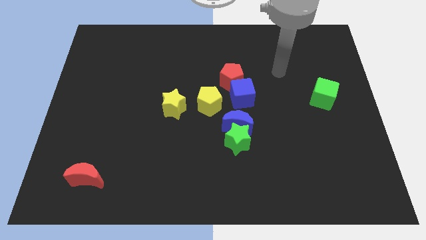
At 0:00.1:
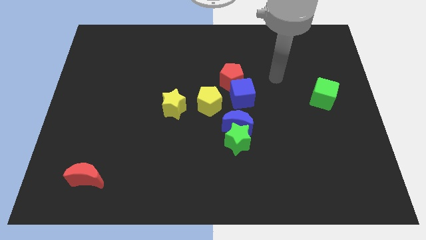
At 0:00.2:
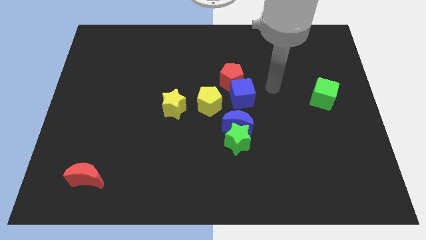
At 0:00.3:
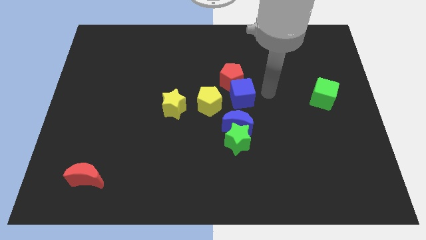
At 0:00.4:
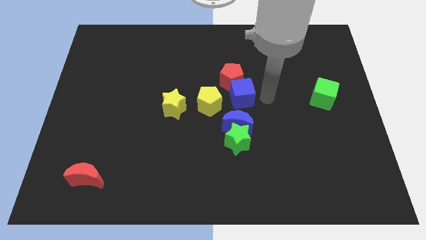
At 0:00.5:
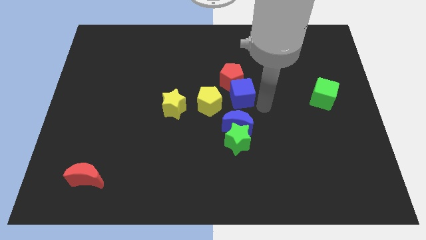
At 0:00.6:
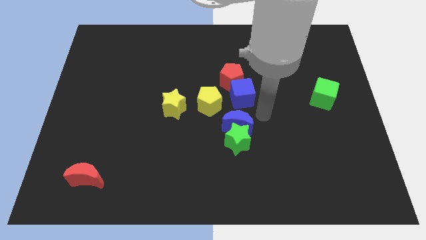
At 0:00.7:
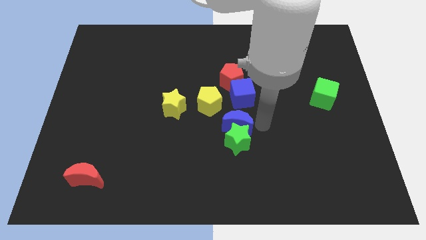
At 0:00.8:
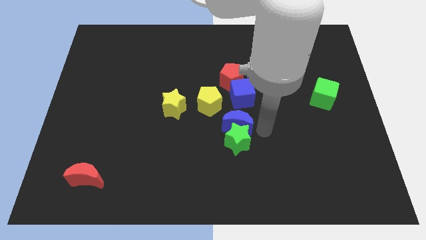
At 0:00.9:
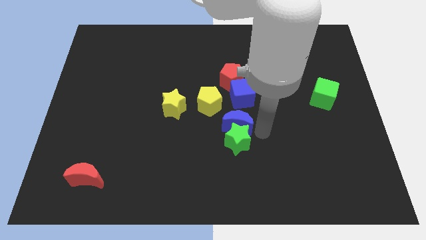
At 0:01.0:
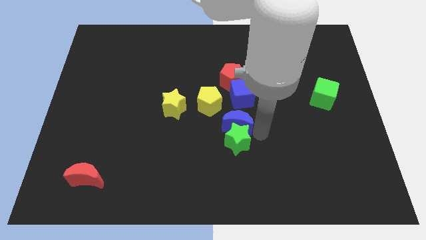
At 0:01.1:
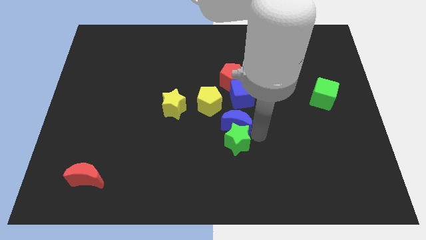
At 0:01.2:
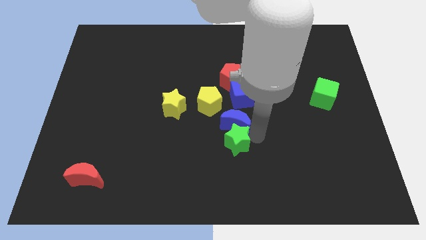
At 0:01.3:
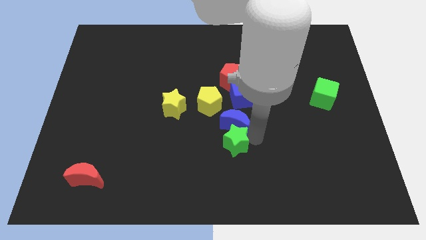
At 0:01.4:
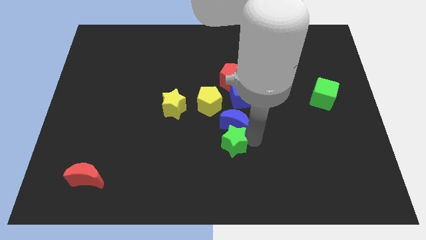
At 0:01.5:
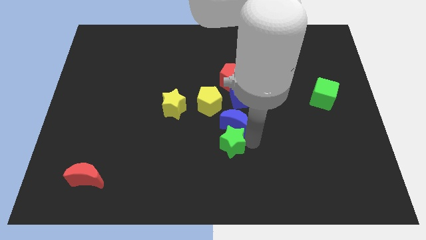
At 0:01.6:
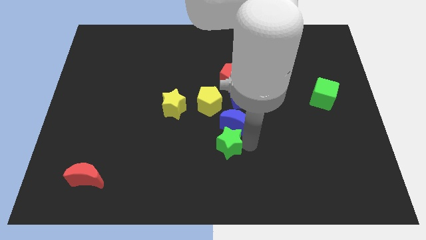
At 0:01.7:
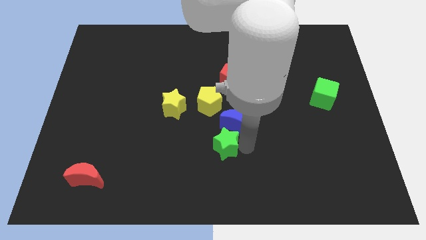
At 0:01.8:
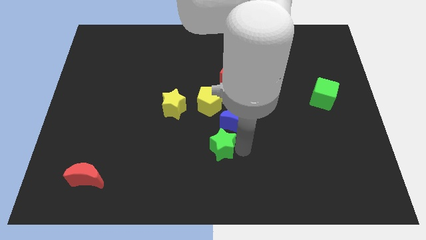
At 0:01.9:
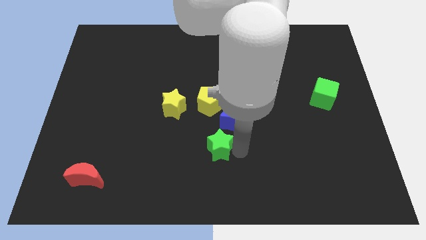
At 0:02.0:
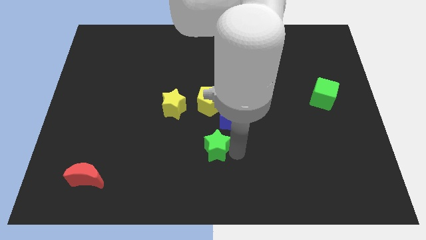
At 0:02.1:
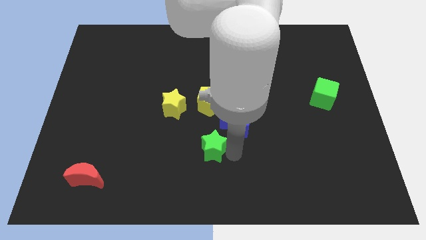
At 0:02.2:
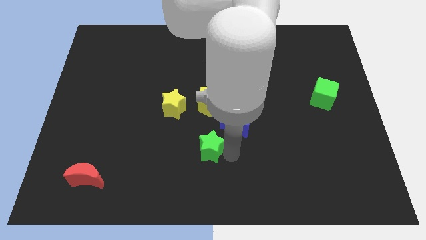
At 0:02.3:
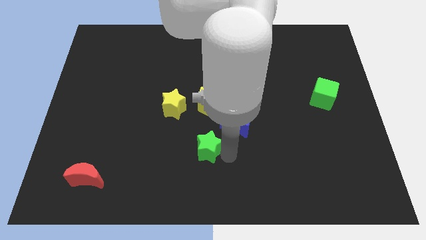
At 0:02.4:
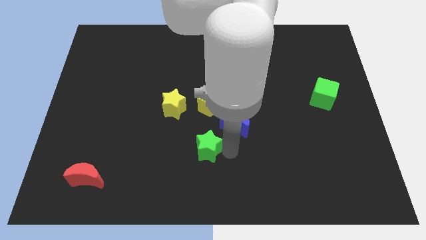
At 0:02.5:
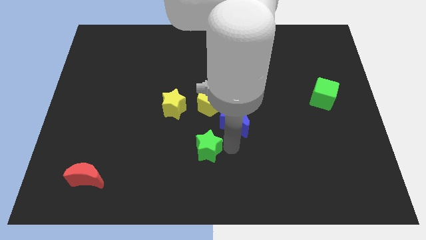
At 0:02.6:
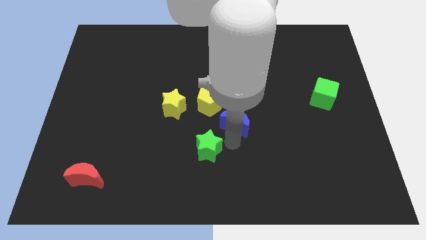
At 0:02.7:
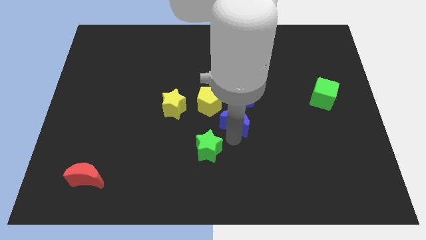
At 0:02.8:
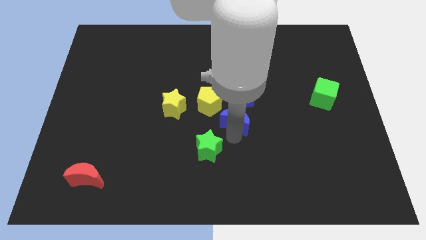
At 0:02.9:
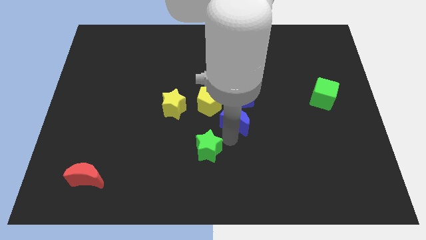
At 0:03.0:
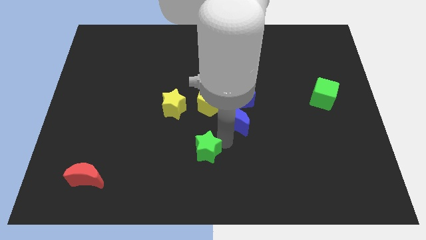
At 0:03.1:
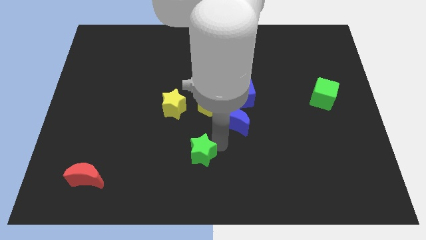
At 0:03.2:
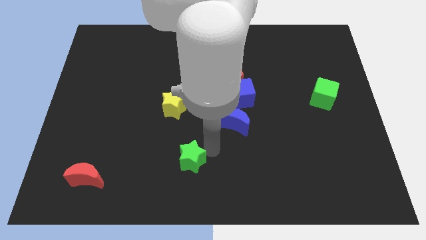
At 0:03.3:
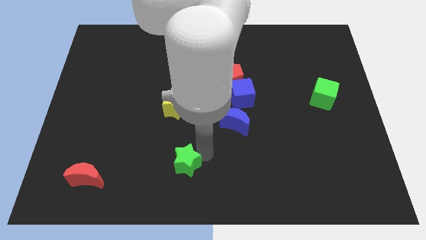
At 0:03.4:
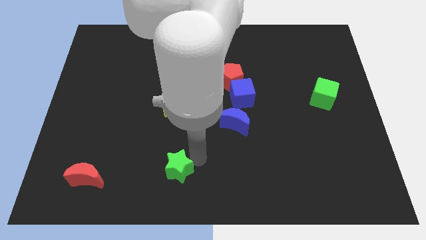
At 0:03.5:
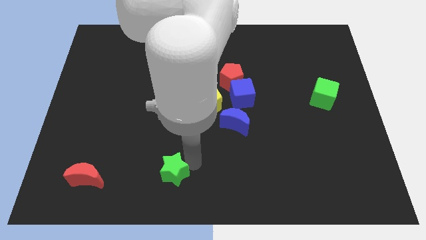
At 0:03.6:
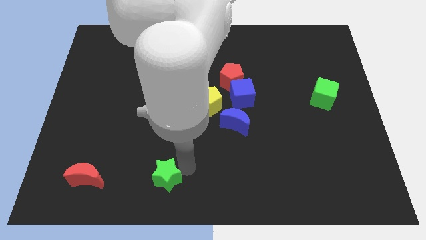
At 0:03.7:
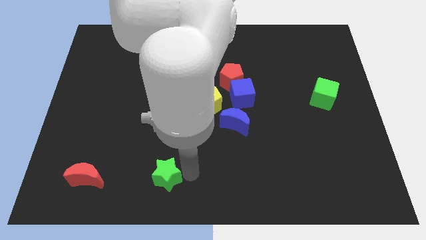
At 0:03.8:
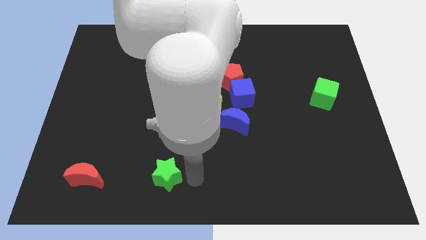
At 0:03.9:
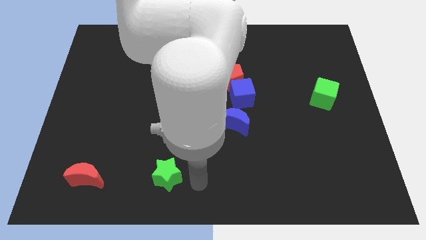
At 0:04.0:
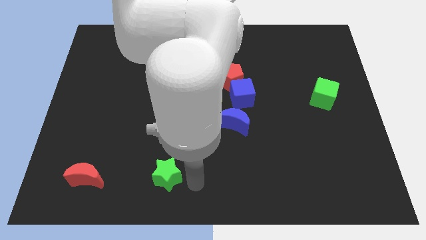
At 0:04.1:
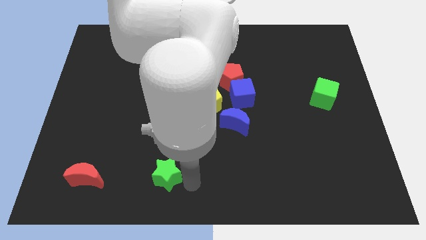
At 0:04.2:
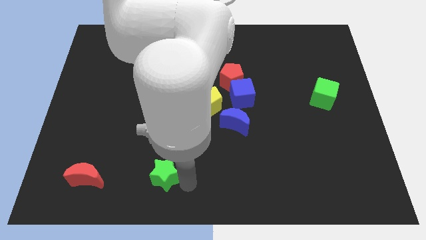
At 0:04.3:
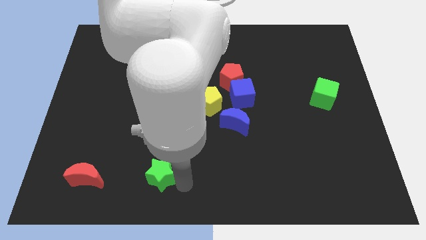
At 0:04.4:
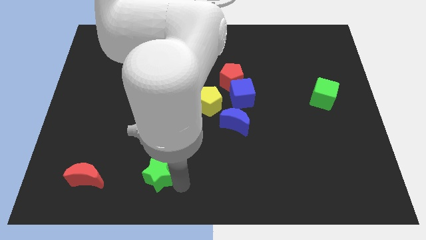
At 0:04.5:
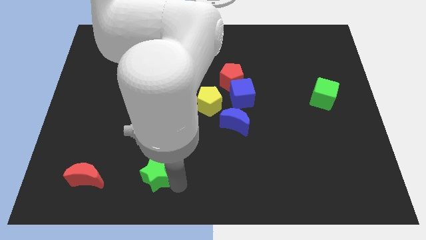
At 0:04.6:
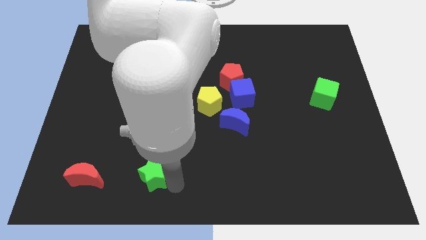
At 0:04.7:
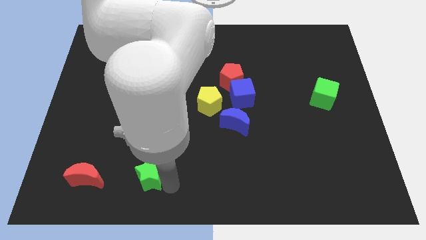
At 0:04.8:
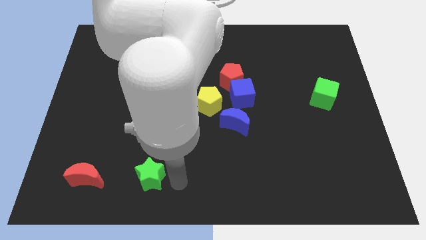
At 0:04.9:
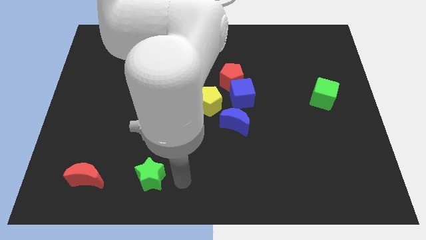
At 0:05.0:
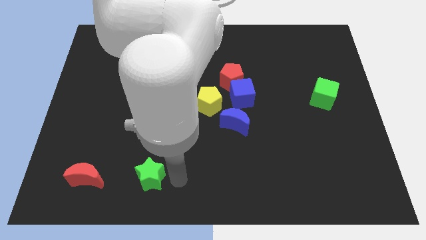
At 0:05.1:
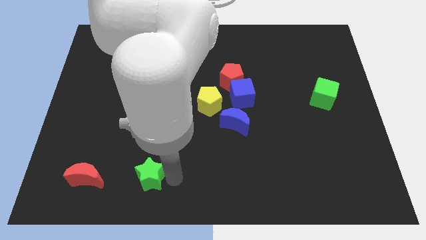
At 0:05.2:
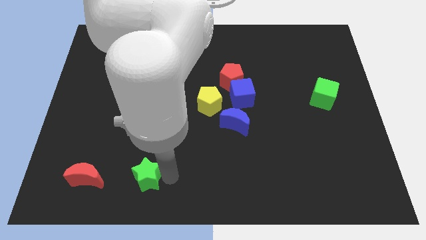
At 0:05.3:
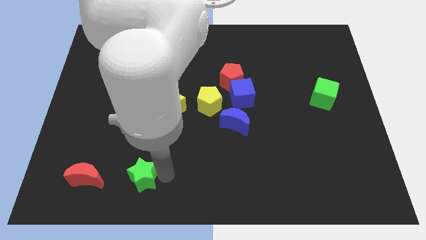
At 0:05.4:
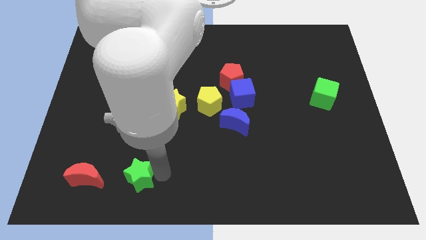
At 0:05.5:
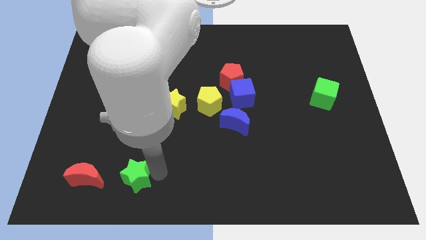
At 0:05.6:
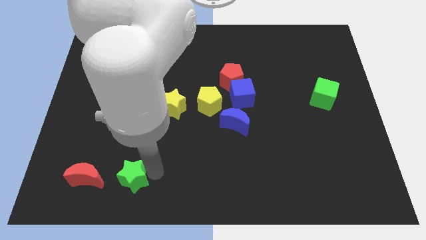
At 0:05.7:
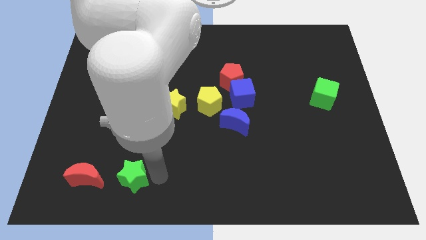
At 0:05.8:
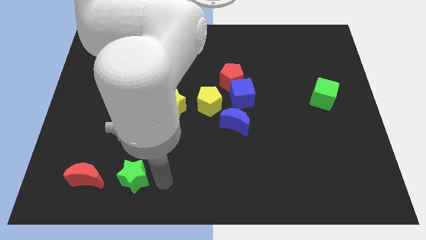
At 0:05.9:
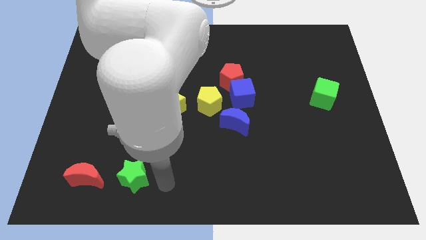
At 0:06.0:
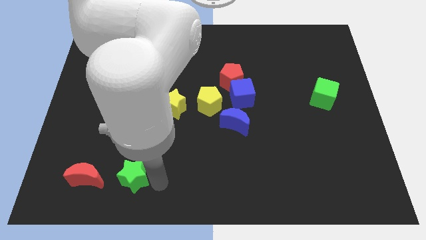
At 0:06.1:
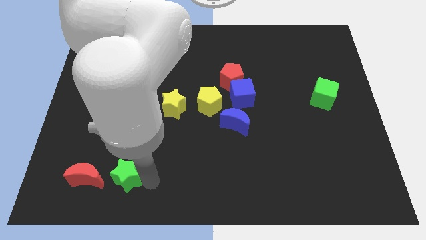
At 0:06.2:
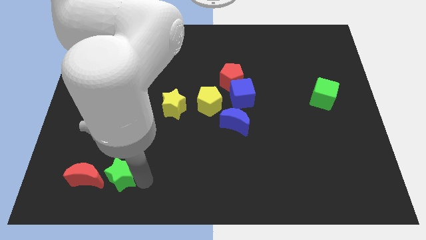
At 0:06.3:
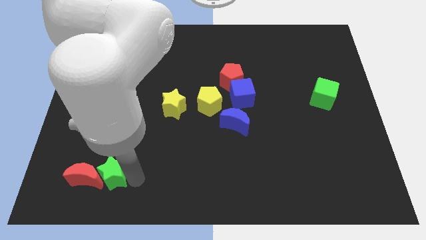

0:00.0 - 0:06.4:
slide the green star to the red moon

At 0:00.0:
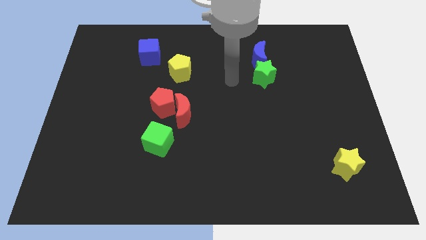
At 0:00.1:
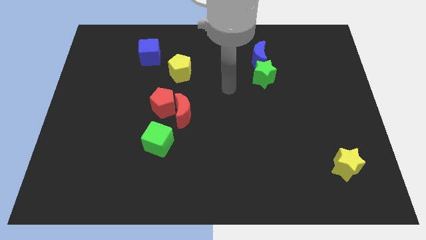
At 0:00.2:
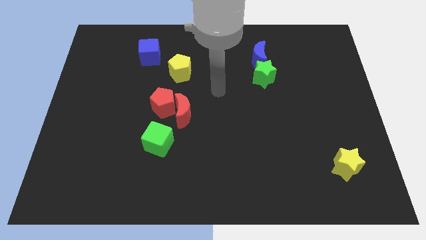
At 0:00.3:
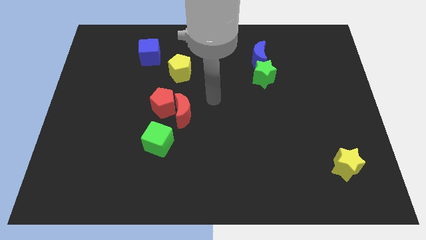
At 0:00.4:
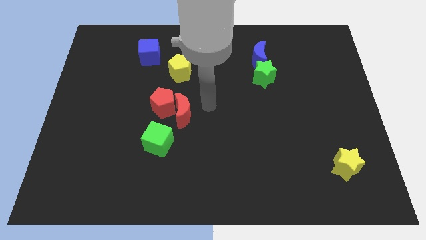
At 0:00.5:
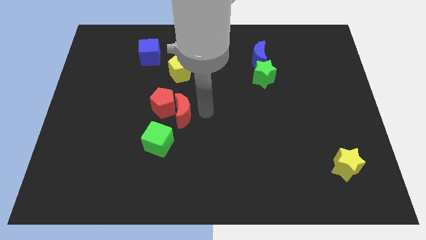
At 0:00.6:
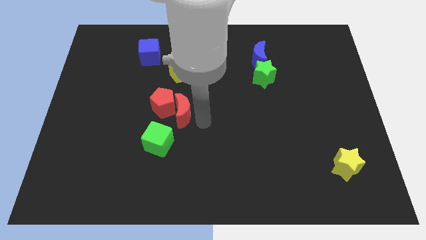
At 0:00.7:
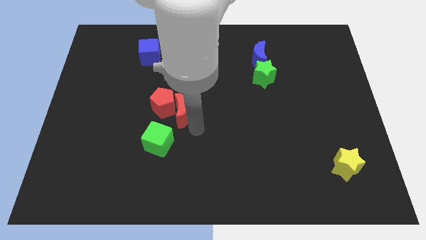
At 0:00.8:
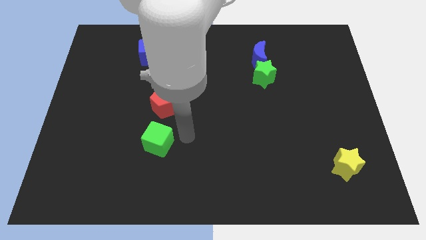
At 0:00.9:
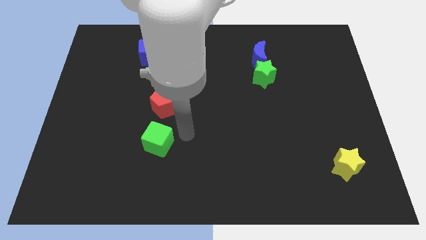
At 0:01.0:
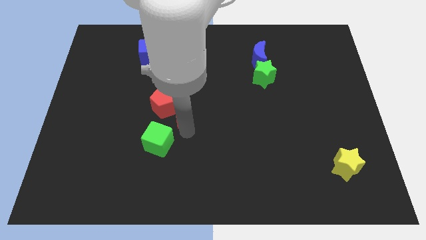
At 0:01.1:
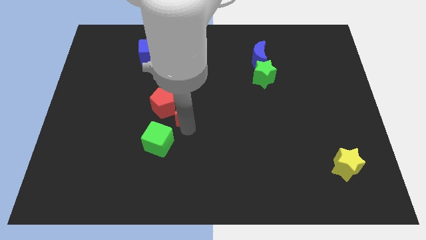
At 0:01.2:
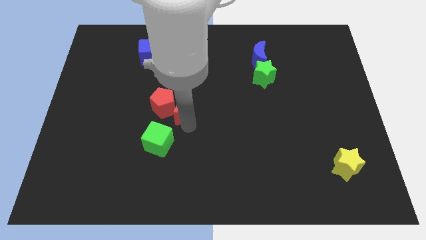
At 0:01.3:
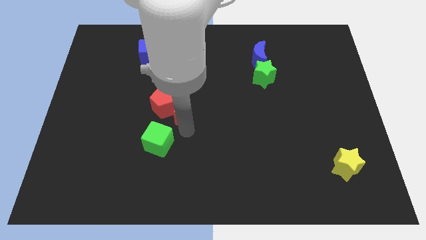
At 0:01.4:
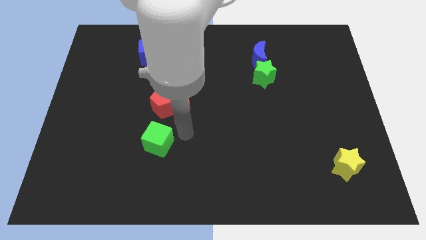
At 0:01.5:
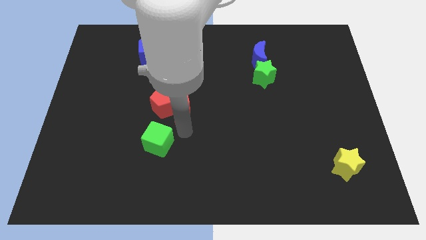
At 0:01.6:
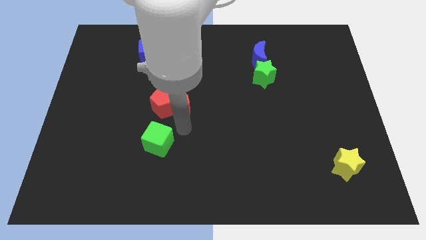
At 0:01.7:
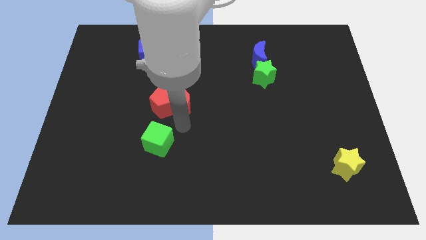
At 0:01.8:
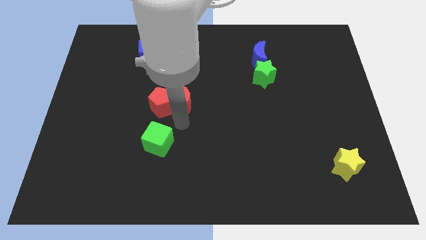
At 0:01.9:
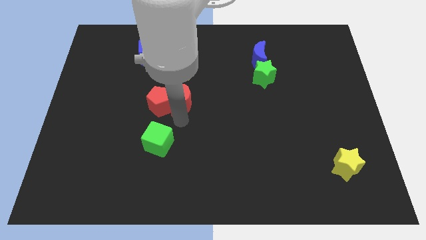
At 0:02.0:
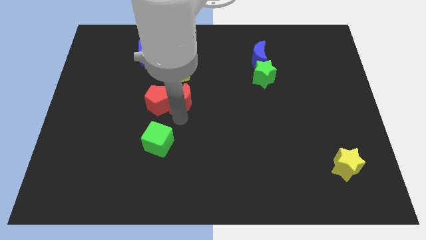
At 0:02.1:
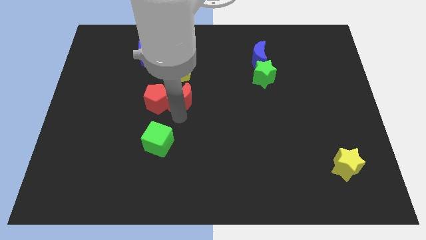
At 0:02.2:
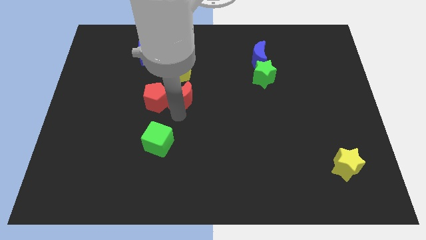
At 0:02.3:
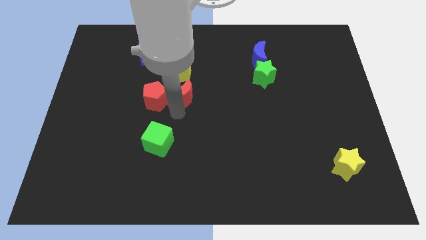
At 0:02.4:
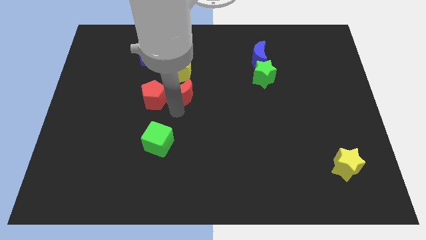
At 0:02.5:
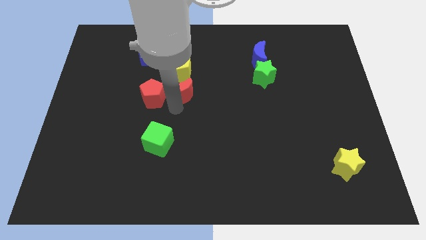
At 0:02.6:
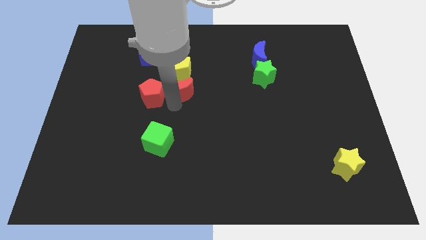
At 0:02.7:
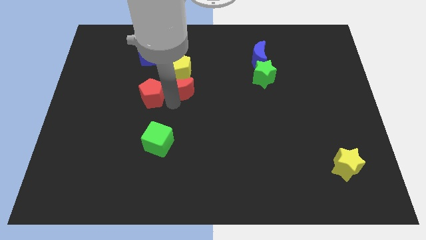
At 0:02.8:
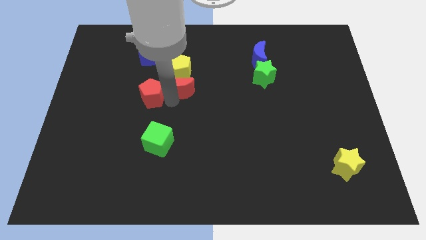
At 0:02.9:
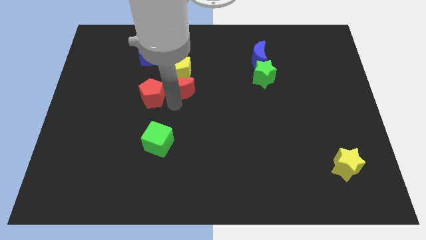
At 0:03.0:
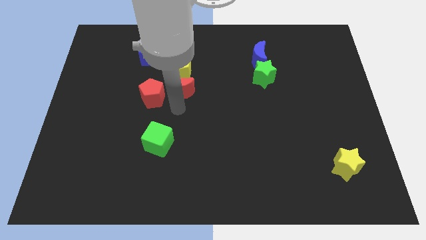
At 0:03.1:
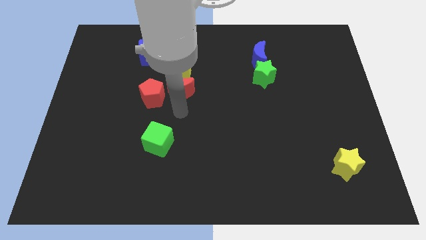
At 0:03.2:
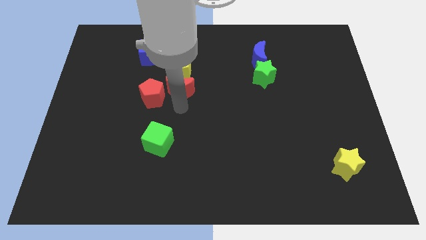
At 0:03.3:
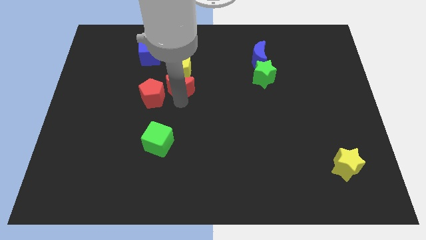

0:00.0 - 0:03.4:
move the red moon towards the yellow pentagon
